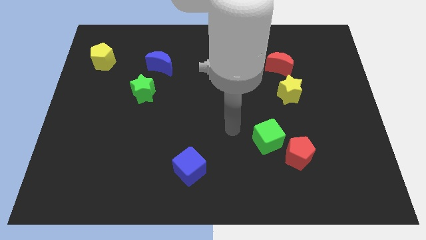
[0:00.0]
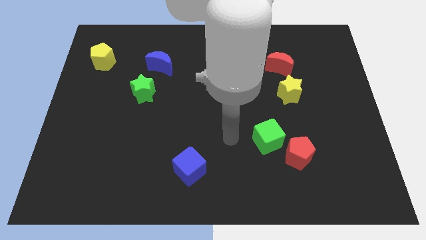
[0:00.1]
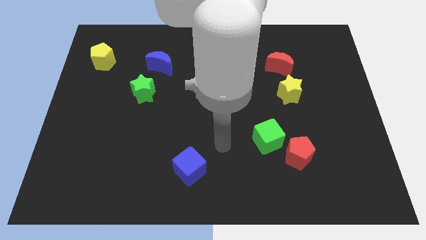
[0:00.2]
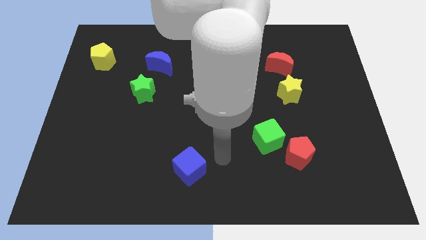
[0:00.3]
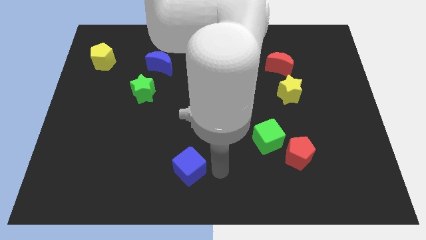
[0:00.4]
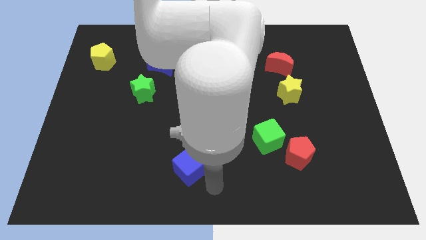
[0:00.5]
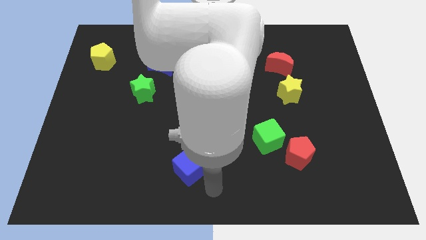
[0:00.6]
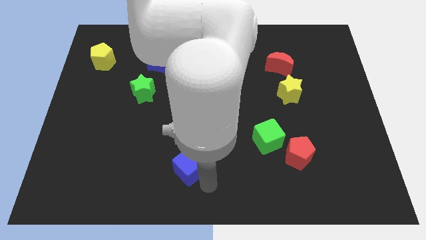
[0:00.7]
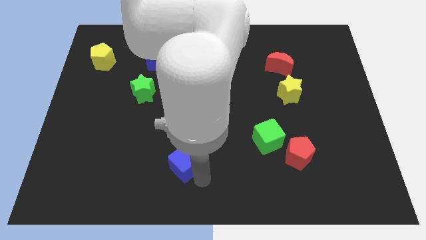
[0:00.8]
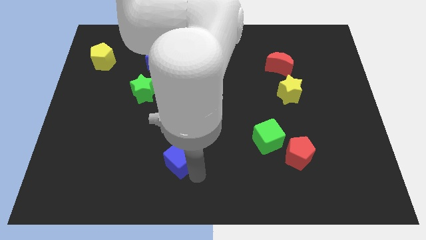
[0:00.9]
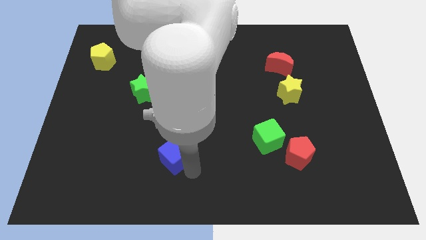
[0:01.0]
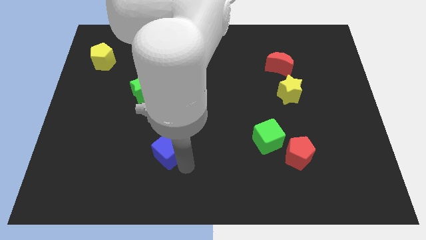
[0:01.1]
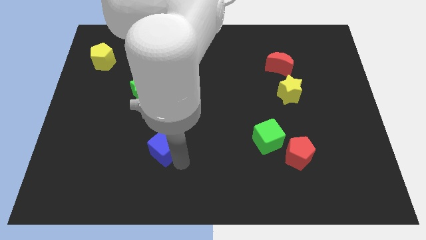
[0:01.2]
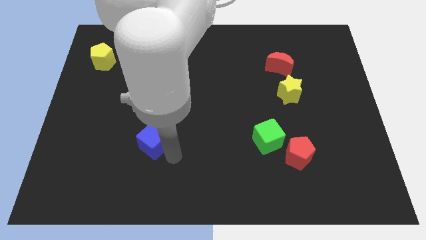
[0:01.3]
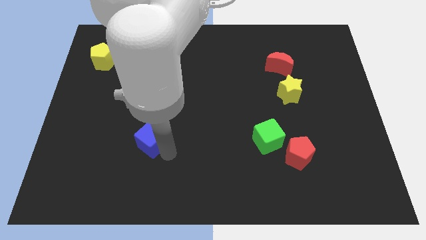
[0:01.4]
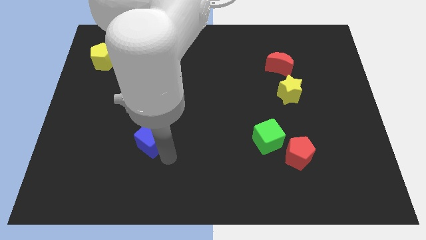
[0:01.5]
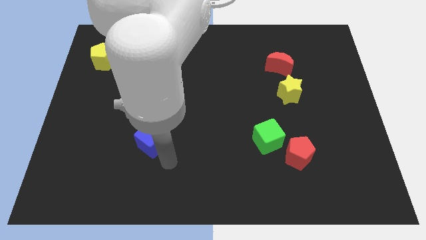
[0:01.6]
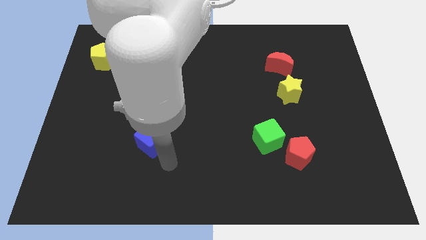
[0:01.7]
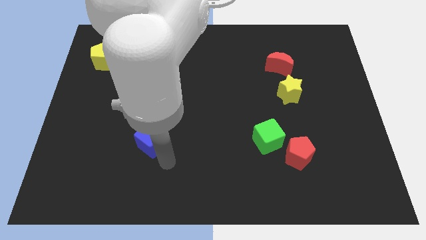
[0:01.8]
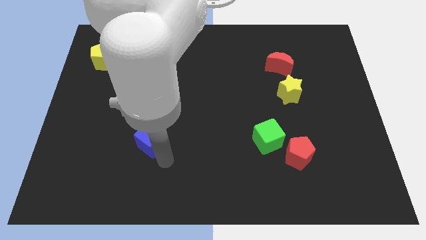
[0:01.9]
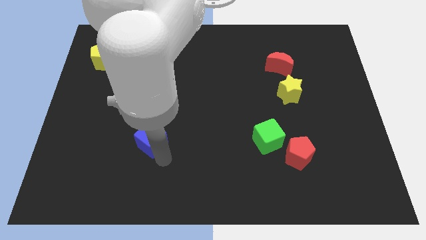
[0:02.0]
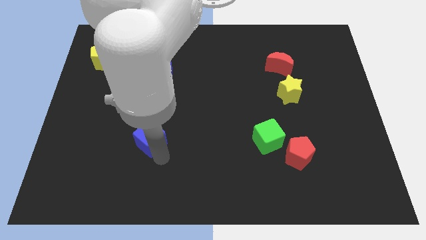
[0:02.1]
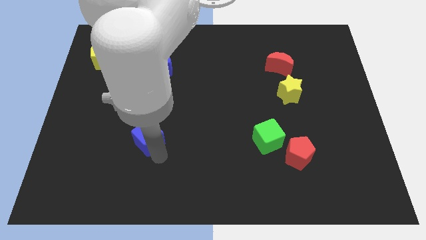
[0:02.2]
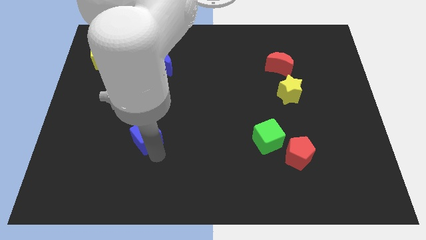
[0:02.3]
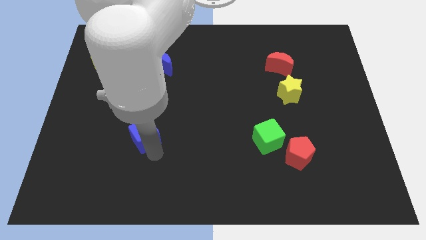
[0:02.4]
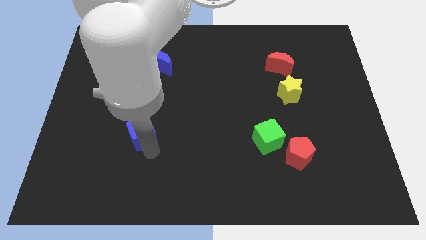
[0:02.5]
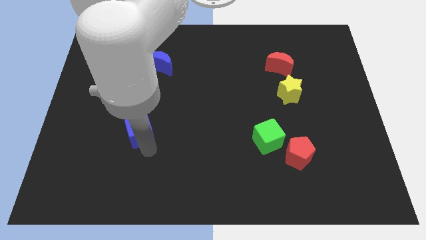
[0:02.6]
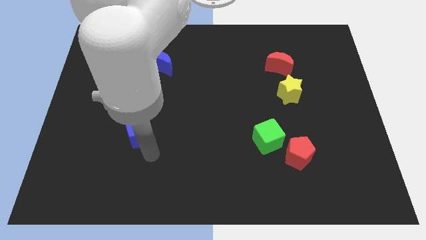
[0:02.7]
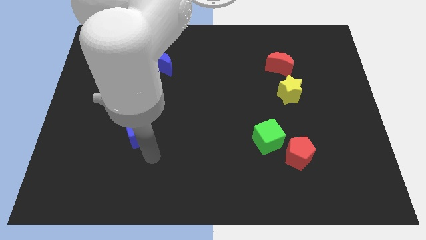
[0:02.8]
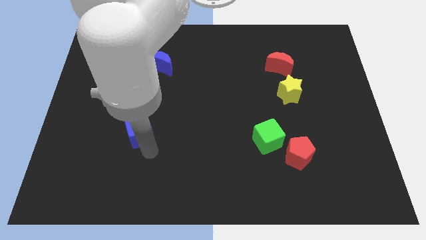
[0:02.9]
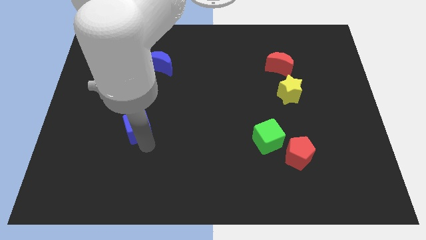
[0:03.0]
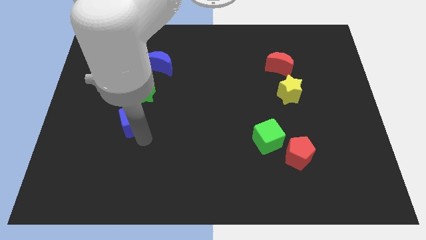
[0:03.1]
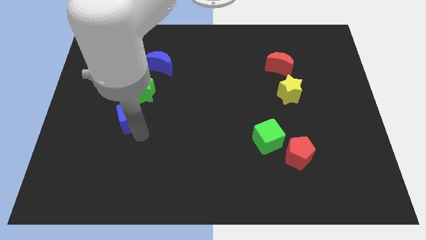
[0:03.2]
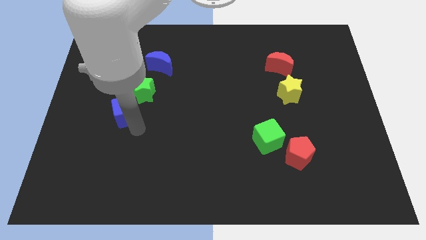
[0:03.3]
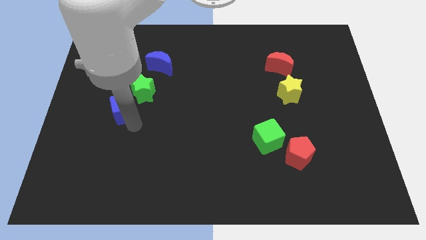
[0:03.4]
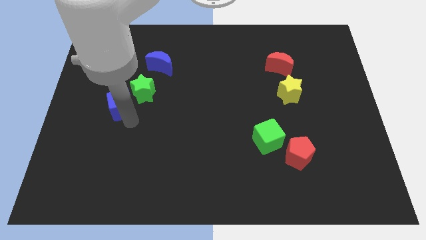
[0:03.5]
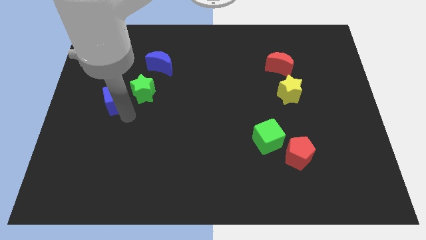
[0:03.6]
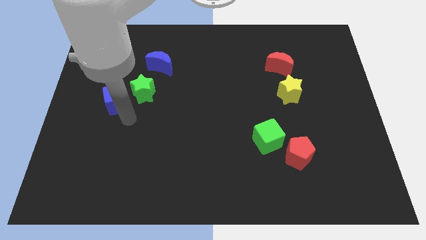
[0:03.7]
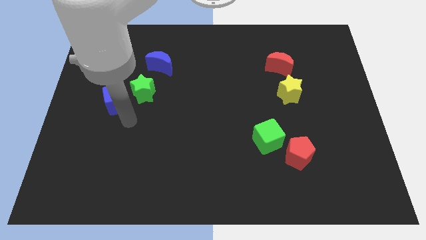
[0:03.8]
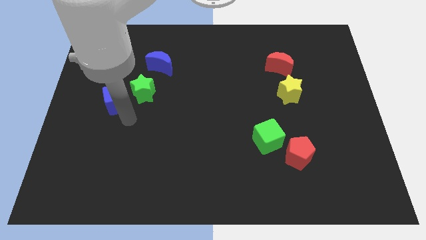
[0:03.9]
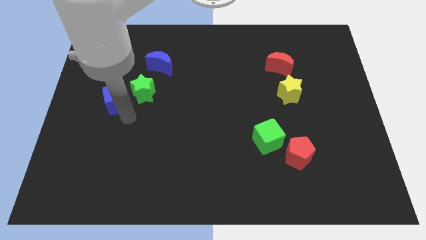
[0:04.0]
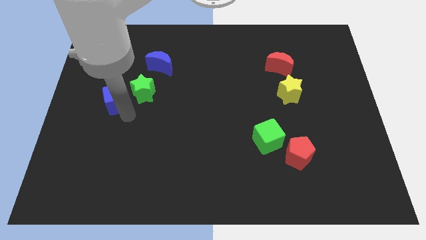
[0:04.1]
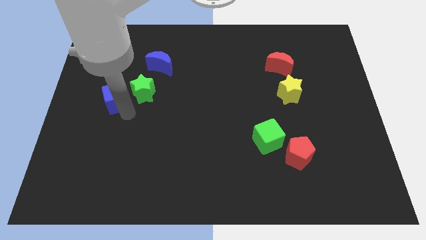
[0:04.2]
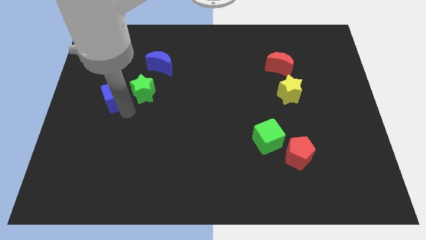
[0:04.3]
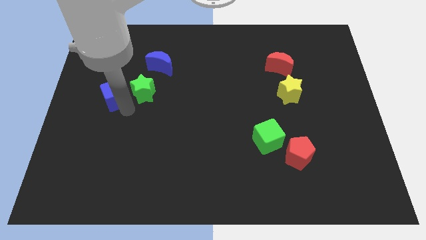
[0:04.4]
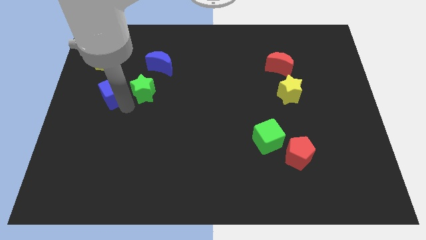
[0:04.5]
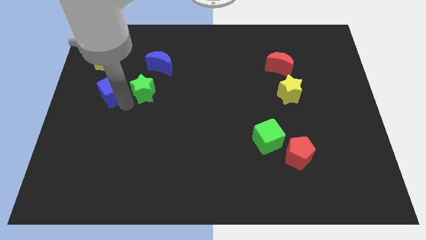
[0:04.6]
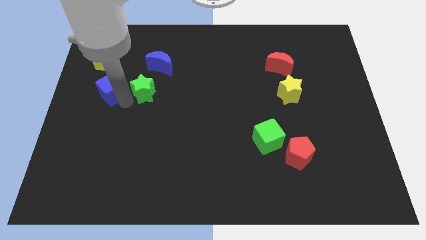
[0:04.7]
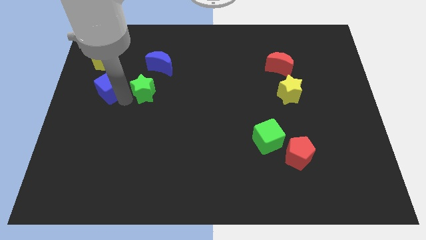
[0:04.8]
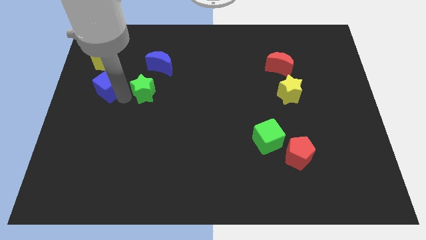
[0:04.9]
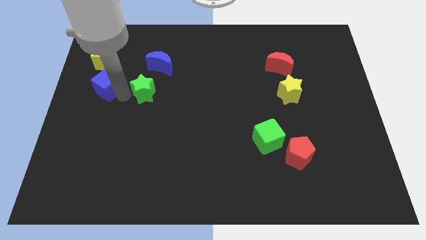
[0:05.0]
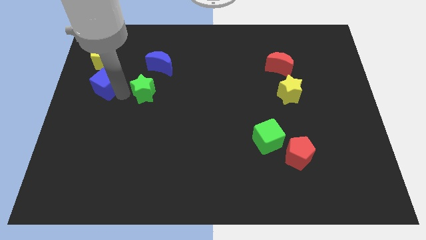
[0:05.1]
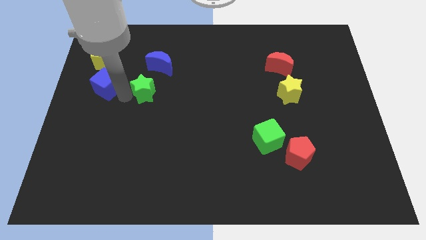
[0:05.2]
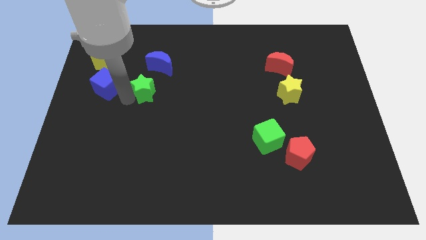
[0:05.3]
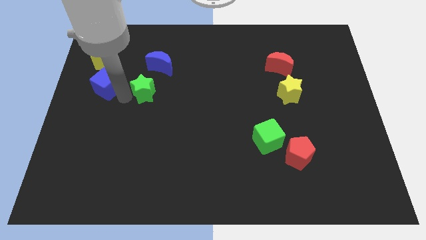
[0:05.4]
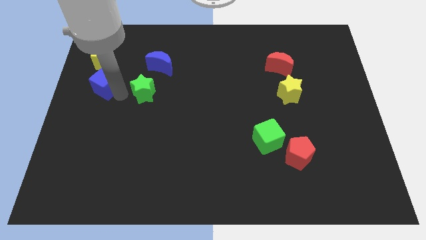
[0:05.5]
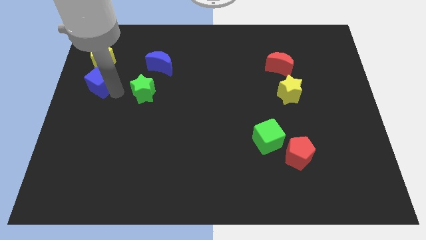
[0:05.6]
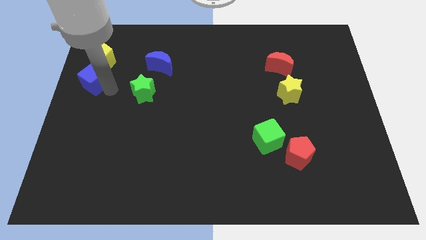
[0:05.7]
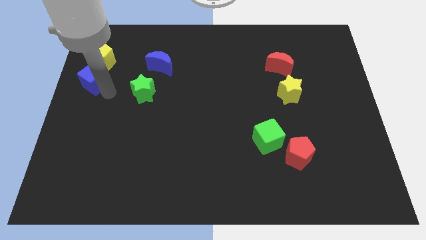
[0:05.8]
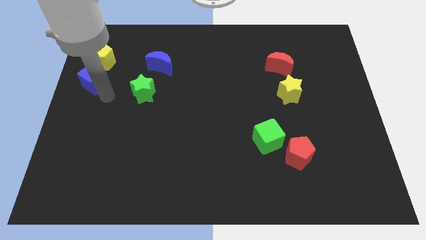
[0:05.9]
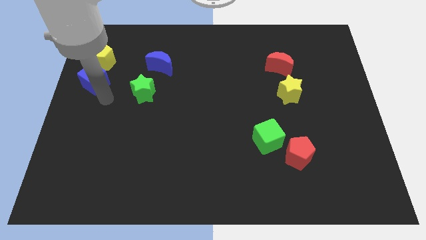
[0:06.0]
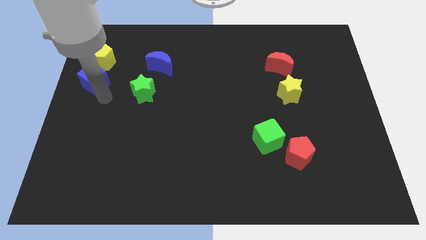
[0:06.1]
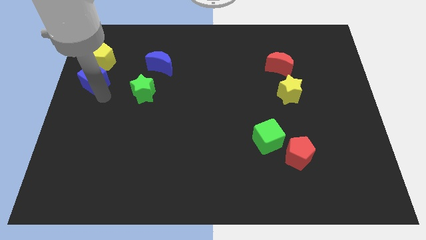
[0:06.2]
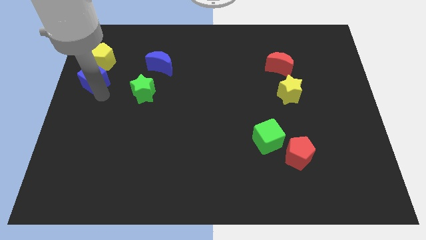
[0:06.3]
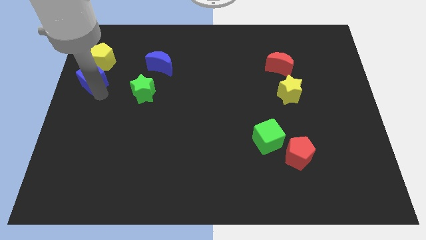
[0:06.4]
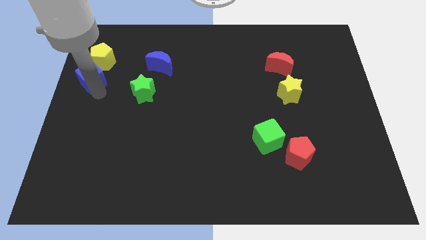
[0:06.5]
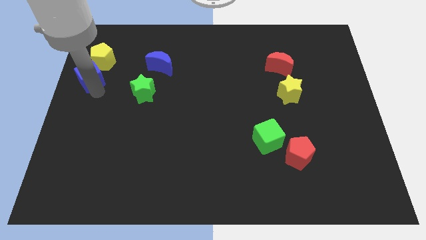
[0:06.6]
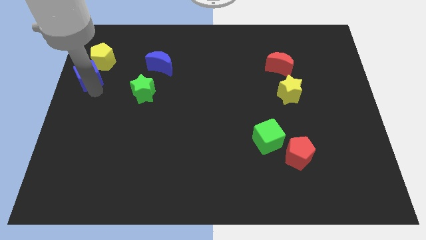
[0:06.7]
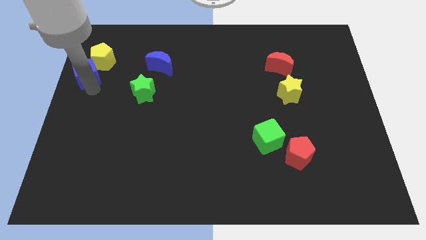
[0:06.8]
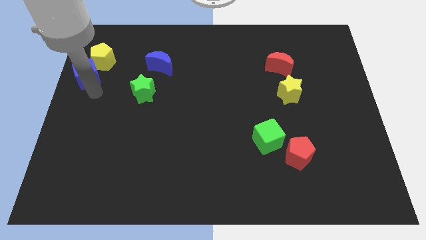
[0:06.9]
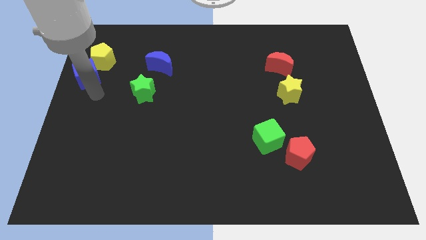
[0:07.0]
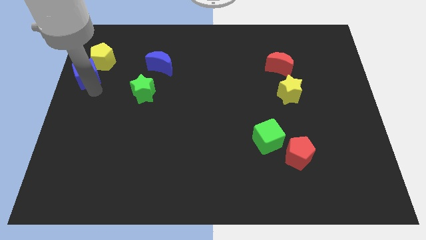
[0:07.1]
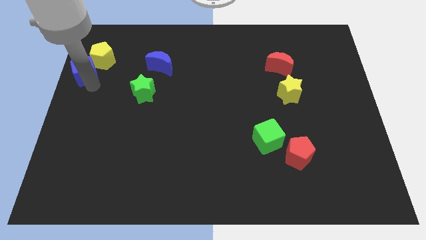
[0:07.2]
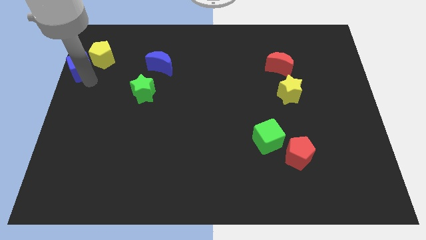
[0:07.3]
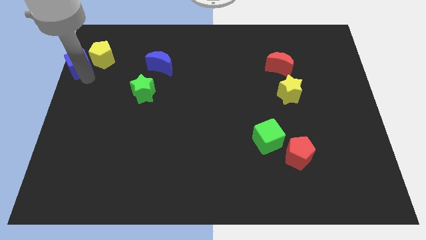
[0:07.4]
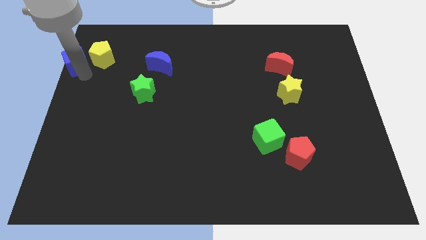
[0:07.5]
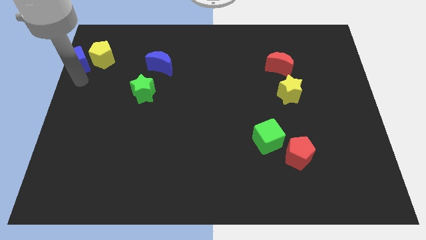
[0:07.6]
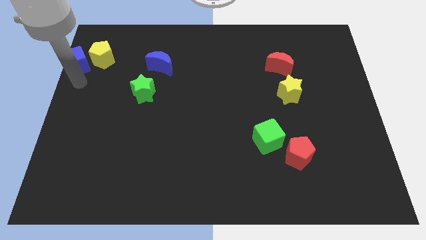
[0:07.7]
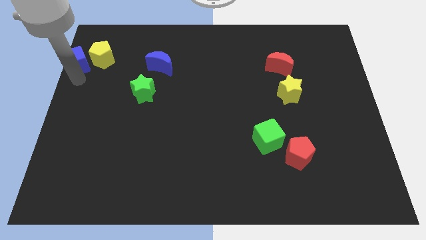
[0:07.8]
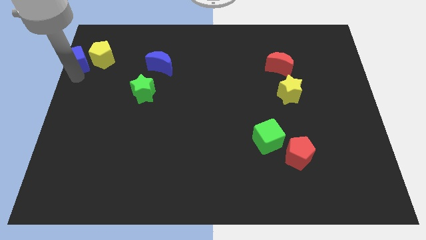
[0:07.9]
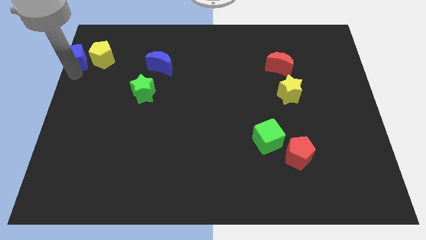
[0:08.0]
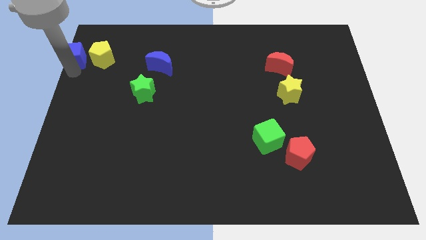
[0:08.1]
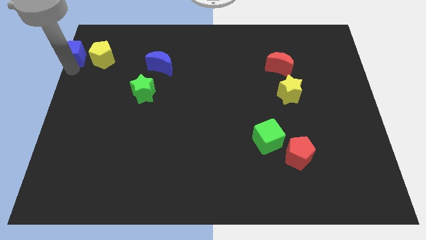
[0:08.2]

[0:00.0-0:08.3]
put the blue cube to the top left of the board
